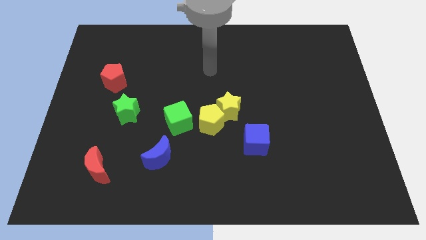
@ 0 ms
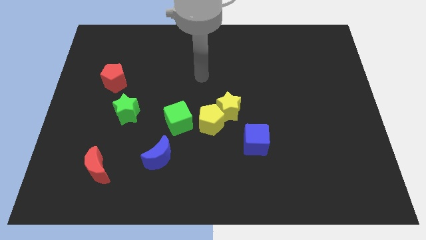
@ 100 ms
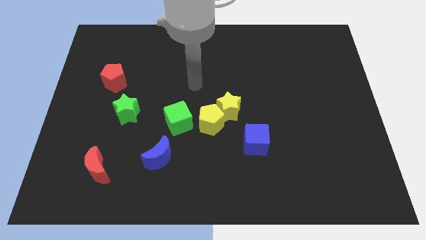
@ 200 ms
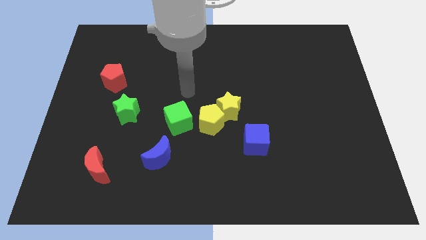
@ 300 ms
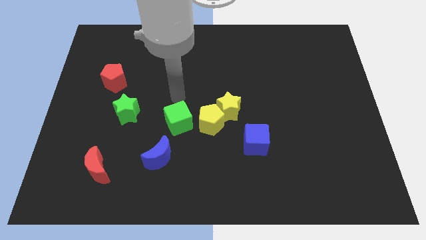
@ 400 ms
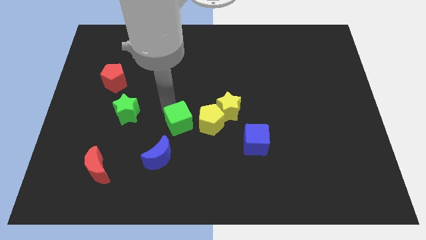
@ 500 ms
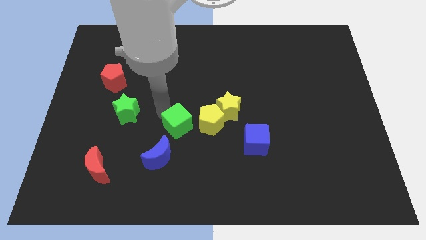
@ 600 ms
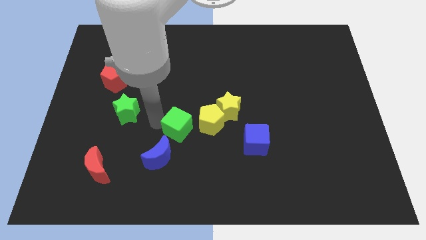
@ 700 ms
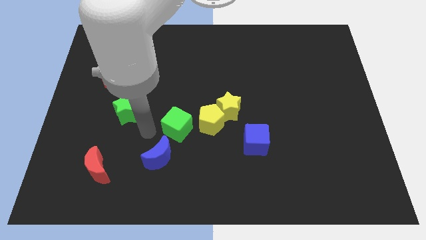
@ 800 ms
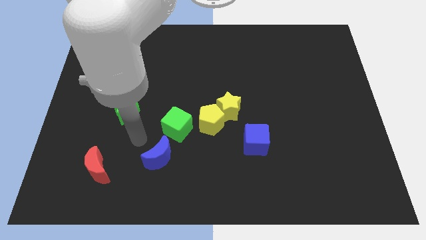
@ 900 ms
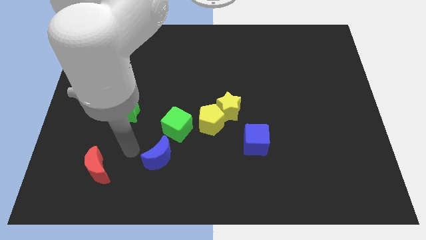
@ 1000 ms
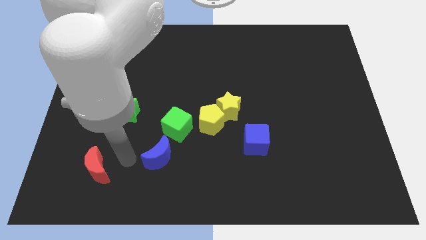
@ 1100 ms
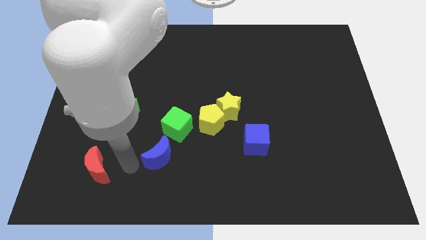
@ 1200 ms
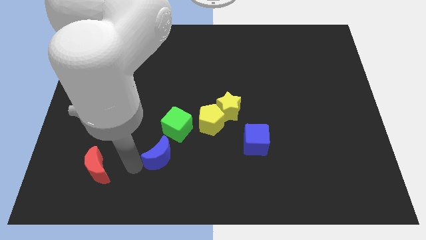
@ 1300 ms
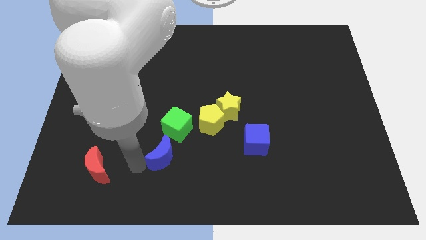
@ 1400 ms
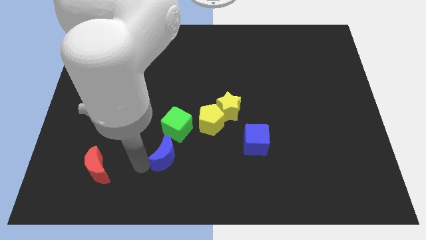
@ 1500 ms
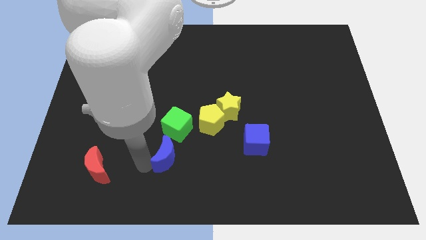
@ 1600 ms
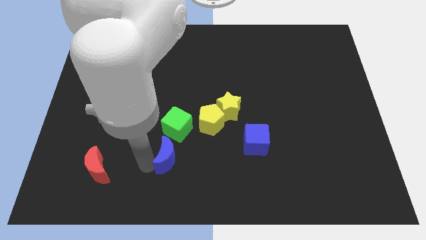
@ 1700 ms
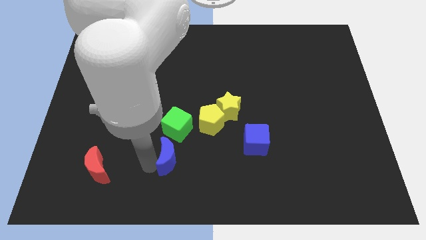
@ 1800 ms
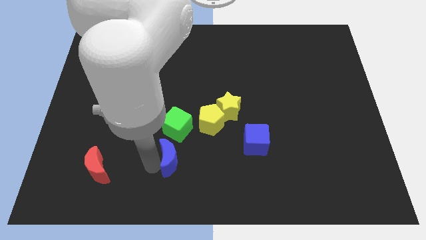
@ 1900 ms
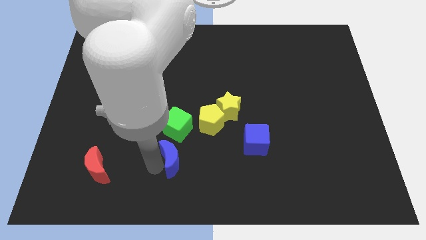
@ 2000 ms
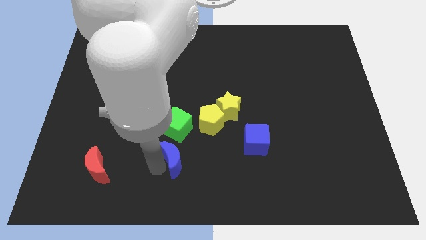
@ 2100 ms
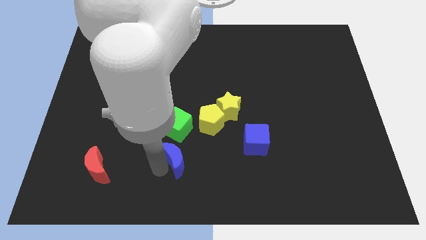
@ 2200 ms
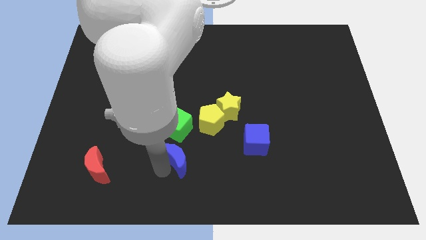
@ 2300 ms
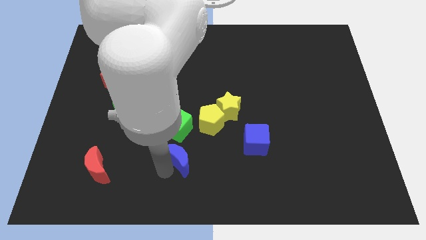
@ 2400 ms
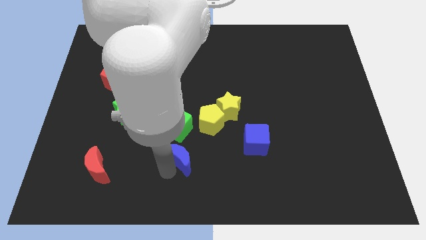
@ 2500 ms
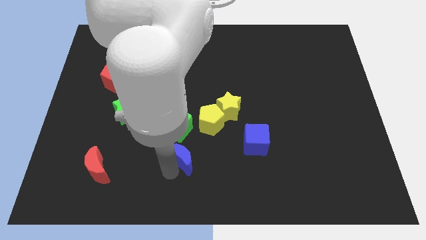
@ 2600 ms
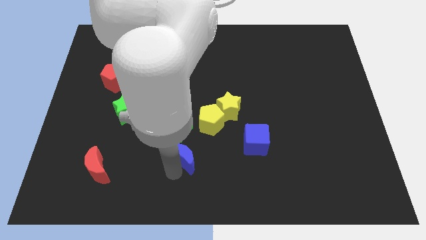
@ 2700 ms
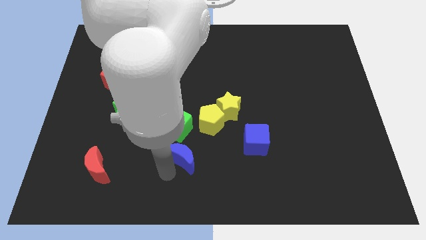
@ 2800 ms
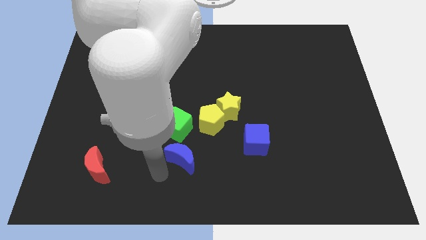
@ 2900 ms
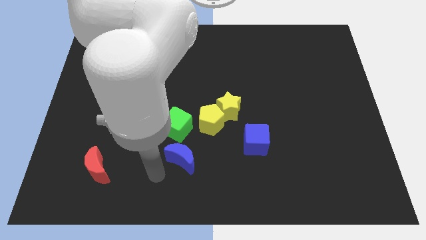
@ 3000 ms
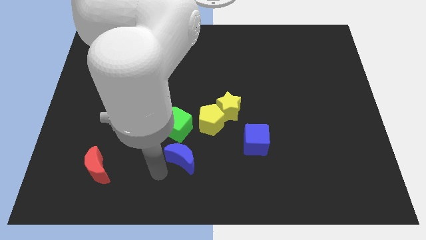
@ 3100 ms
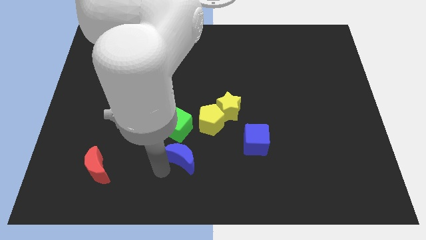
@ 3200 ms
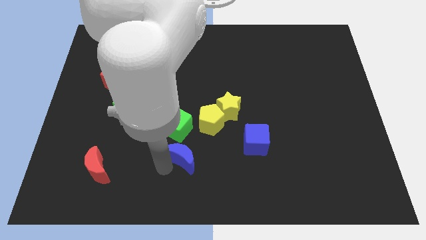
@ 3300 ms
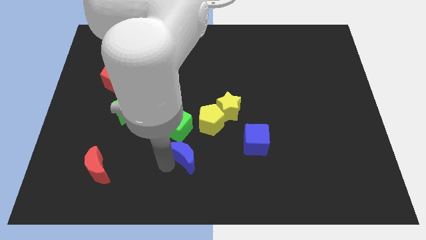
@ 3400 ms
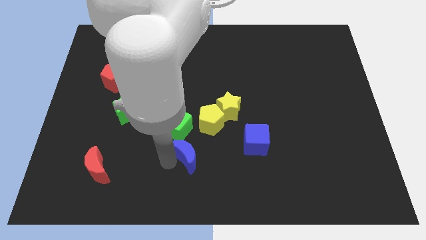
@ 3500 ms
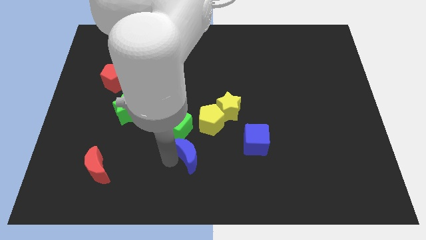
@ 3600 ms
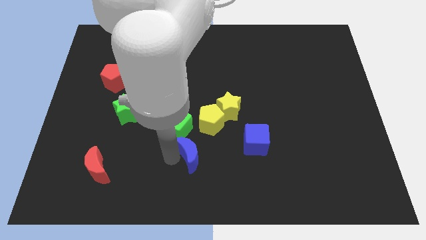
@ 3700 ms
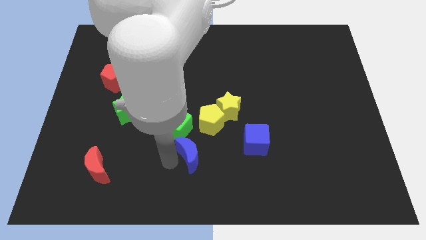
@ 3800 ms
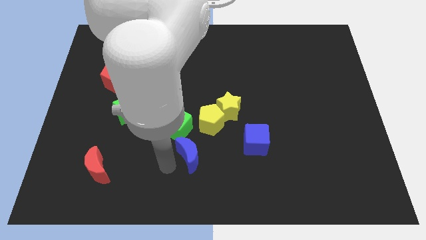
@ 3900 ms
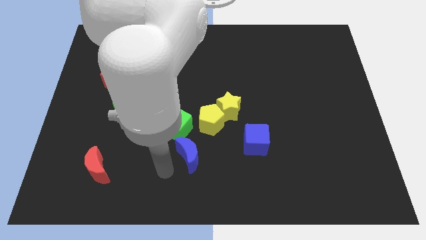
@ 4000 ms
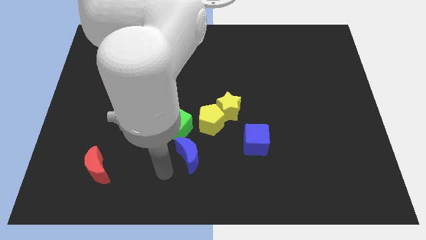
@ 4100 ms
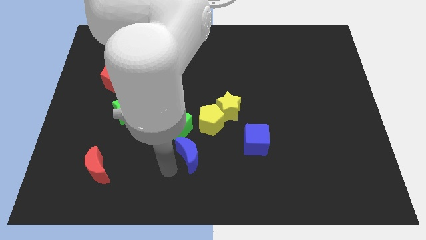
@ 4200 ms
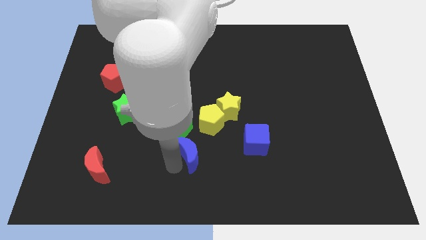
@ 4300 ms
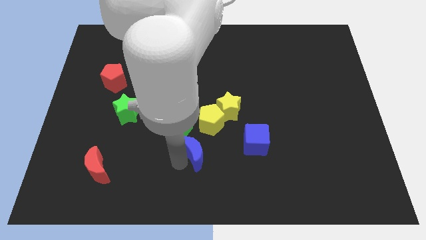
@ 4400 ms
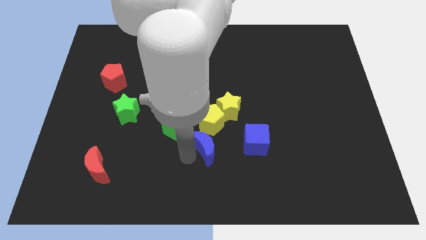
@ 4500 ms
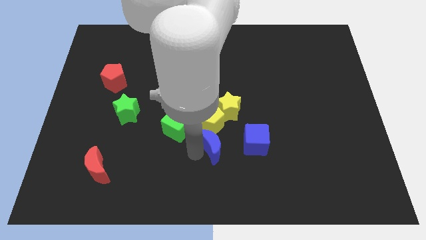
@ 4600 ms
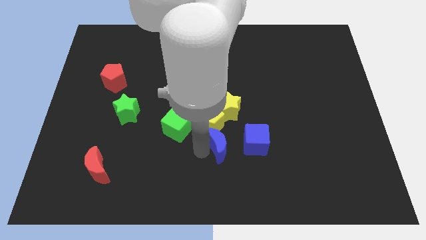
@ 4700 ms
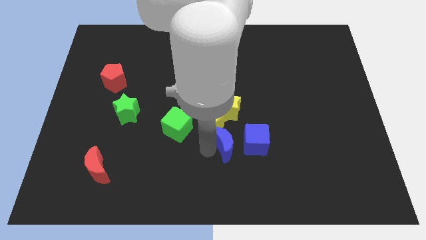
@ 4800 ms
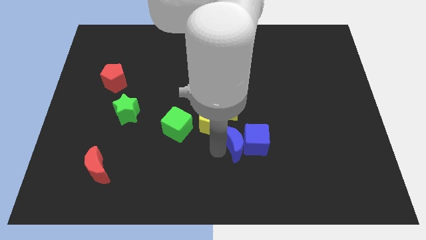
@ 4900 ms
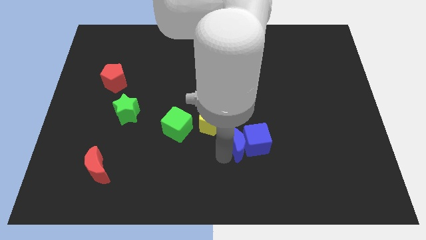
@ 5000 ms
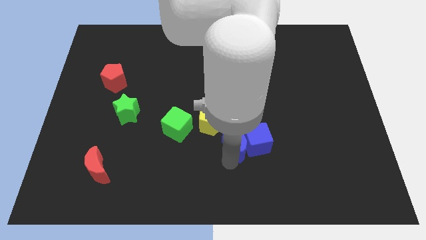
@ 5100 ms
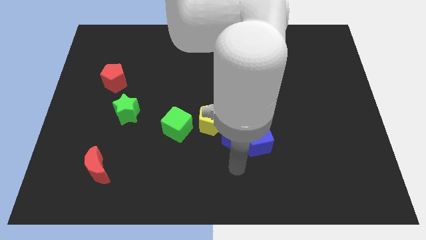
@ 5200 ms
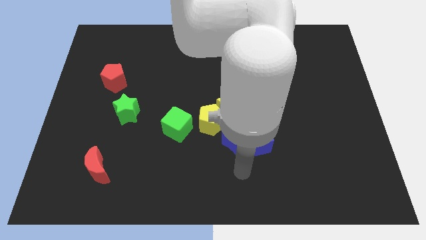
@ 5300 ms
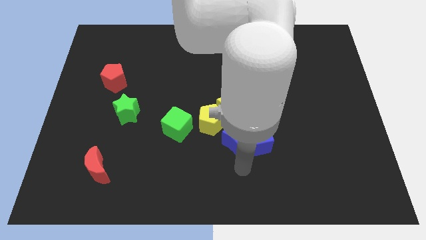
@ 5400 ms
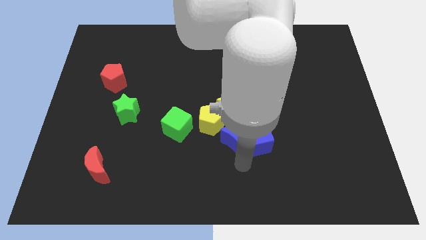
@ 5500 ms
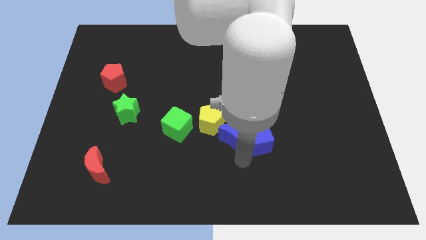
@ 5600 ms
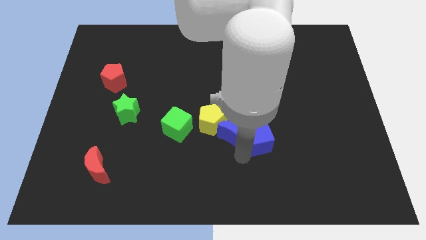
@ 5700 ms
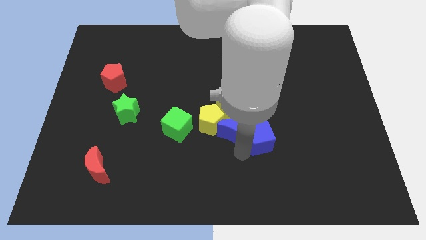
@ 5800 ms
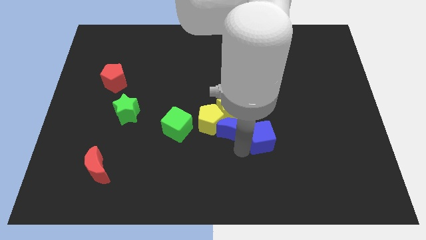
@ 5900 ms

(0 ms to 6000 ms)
push the blue moon close to the yellow star
